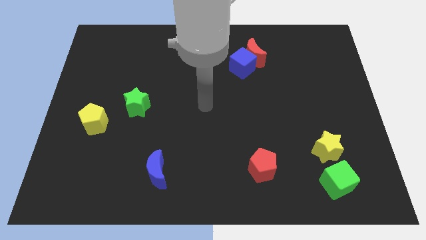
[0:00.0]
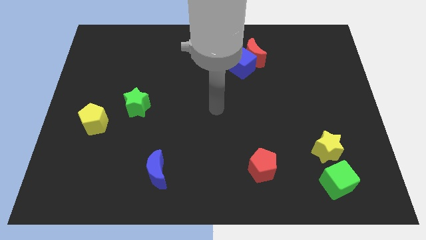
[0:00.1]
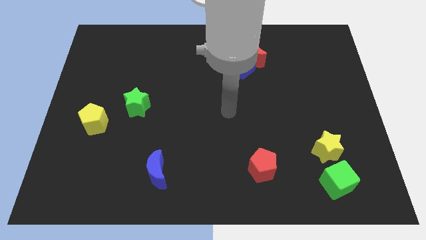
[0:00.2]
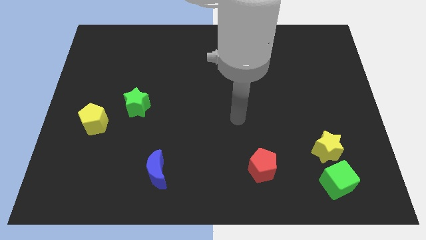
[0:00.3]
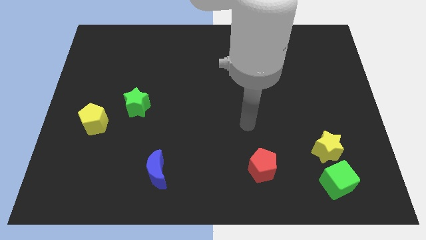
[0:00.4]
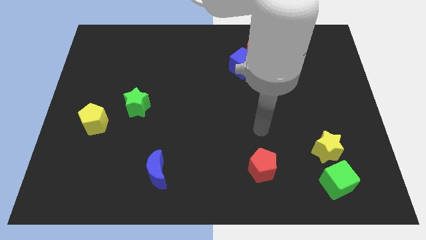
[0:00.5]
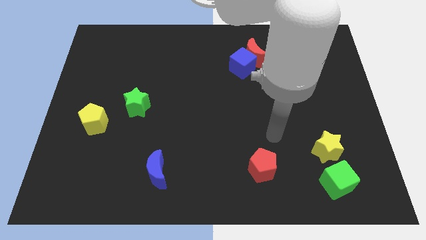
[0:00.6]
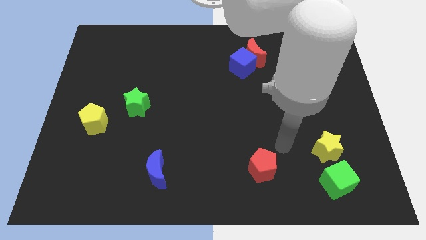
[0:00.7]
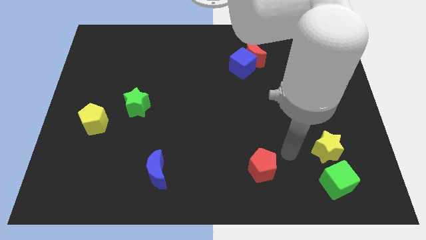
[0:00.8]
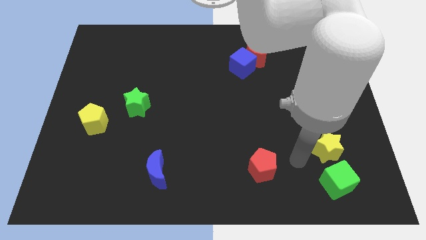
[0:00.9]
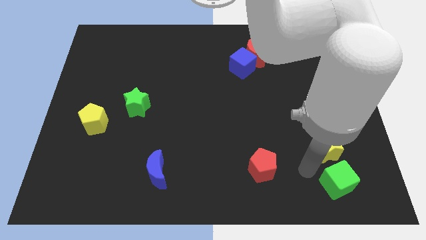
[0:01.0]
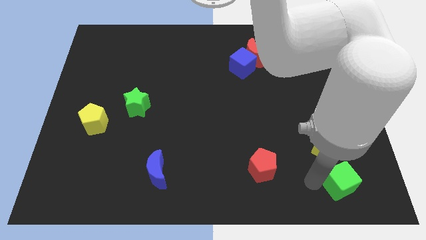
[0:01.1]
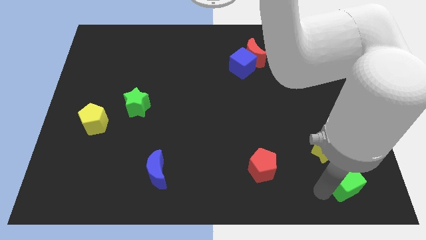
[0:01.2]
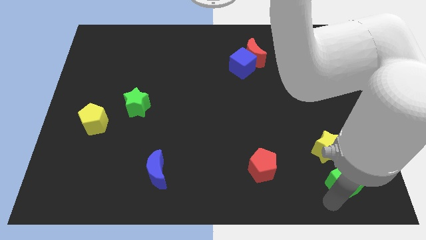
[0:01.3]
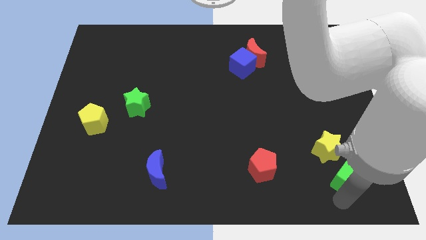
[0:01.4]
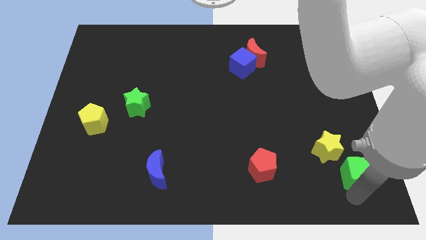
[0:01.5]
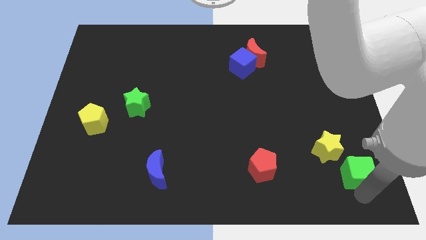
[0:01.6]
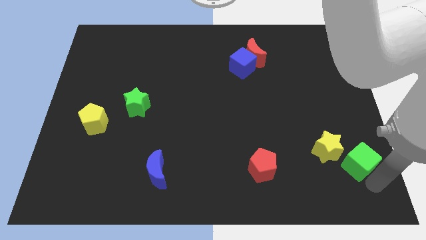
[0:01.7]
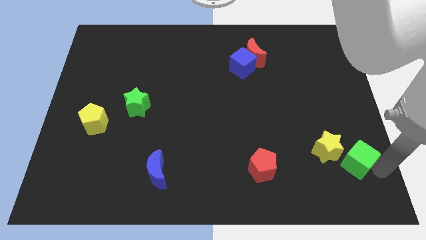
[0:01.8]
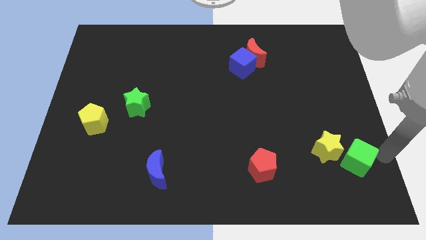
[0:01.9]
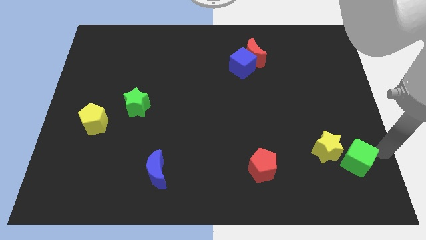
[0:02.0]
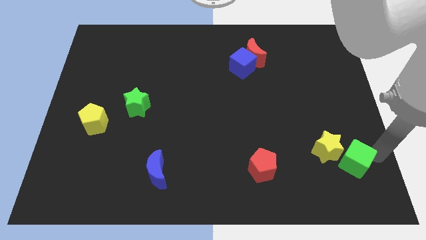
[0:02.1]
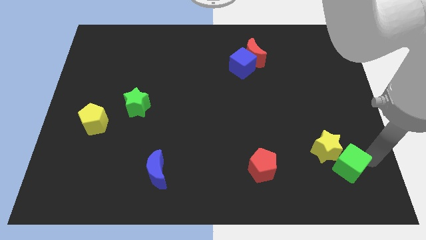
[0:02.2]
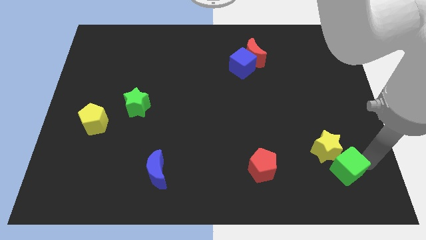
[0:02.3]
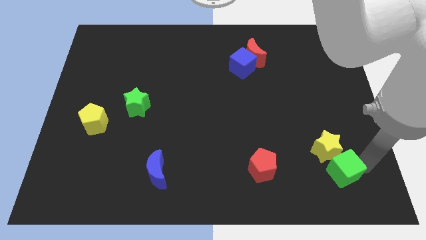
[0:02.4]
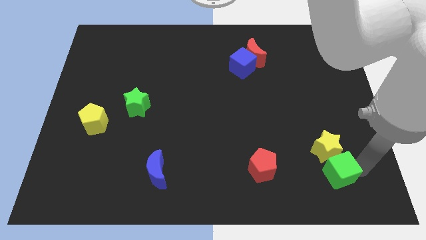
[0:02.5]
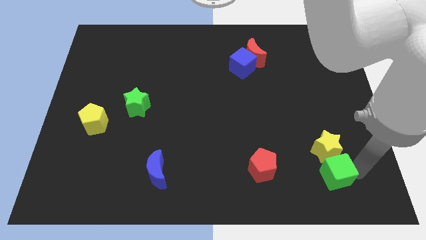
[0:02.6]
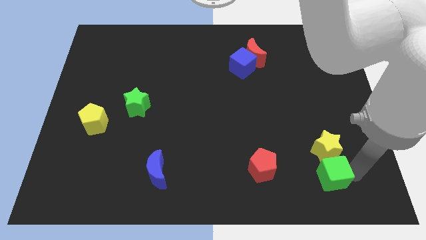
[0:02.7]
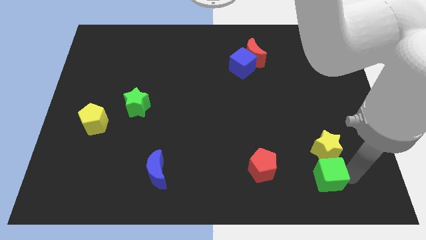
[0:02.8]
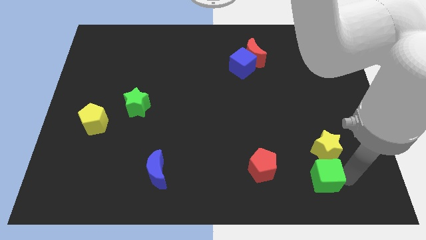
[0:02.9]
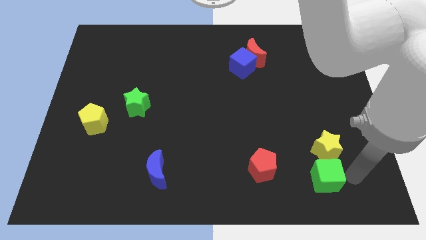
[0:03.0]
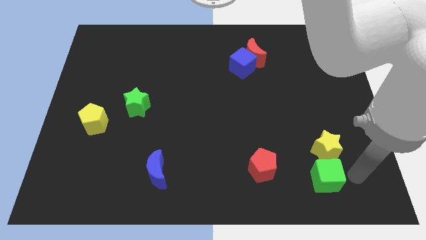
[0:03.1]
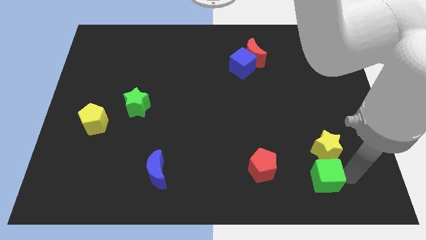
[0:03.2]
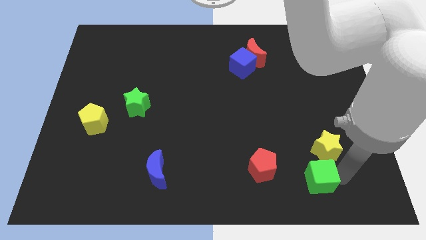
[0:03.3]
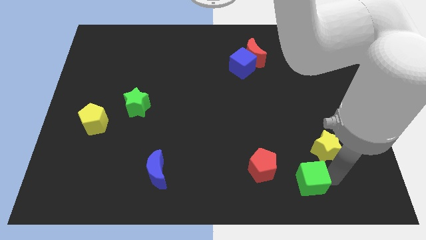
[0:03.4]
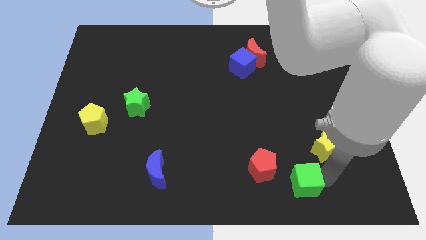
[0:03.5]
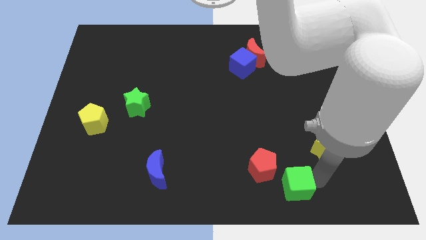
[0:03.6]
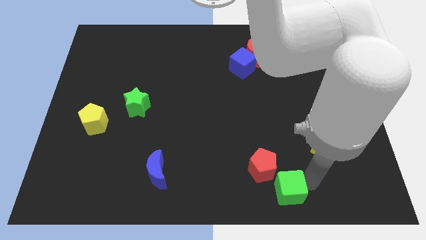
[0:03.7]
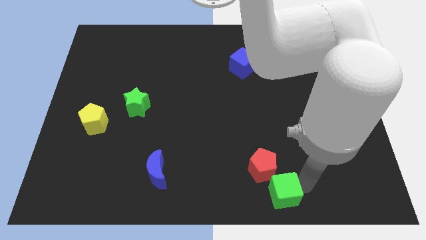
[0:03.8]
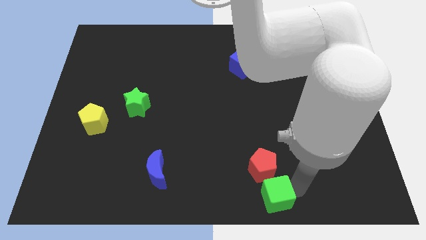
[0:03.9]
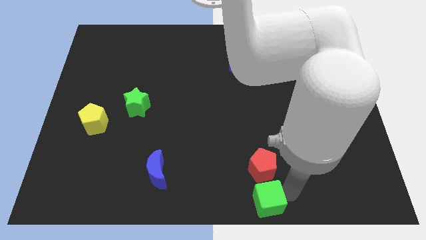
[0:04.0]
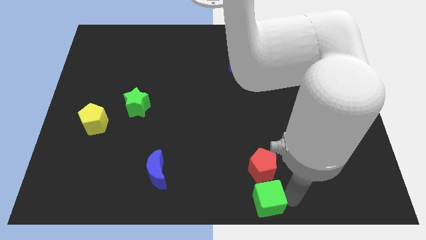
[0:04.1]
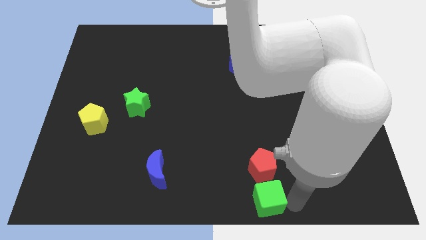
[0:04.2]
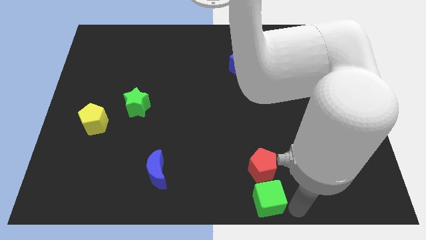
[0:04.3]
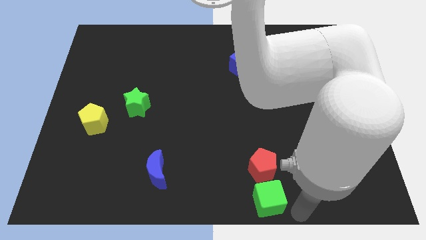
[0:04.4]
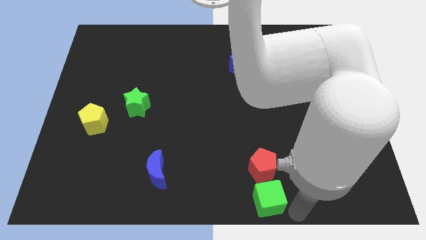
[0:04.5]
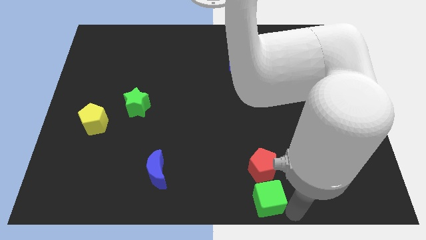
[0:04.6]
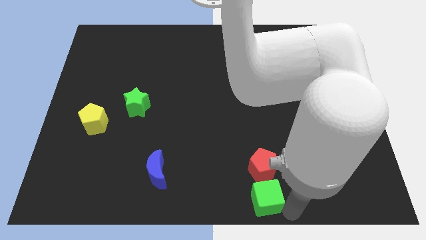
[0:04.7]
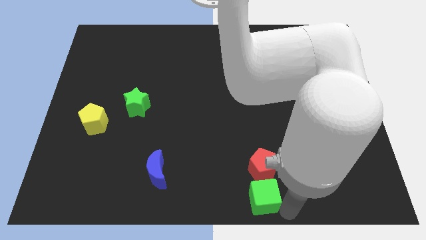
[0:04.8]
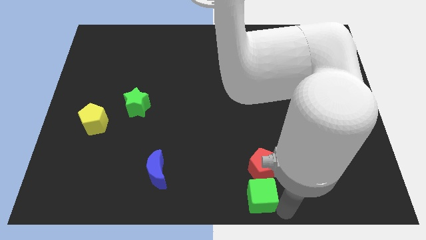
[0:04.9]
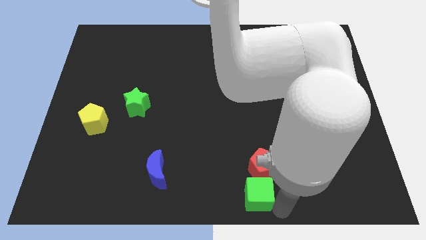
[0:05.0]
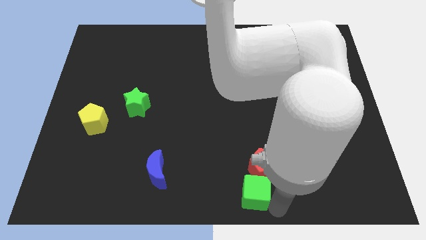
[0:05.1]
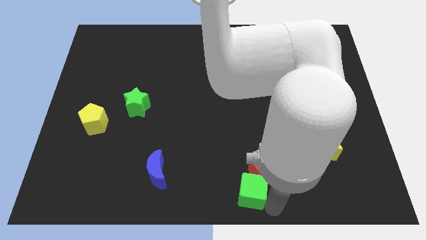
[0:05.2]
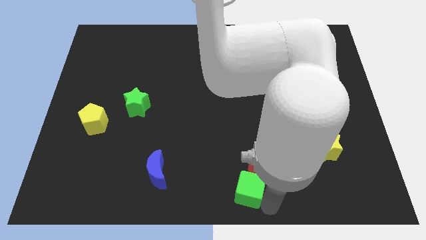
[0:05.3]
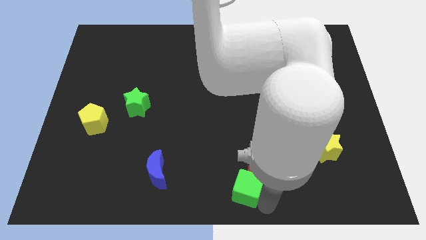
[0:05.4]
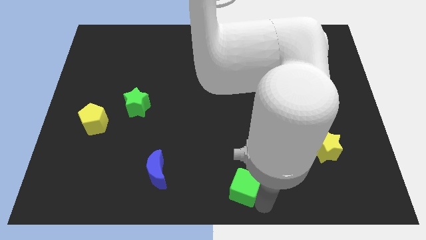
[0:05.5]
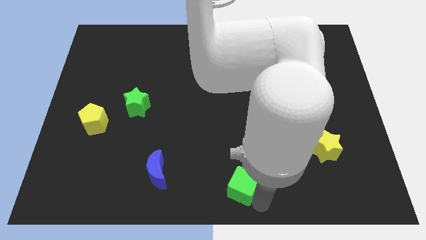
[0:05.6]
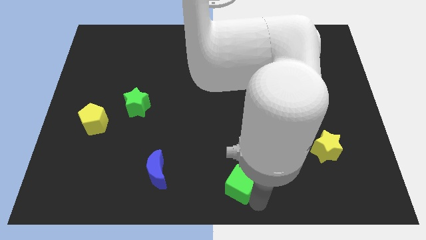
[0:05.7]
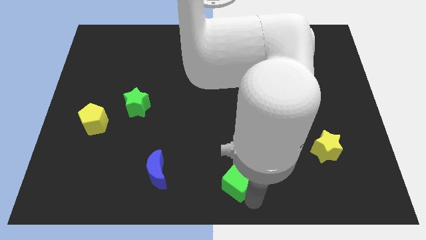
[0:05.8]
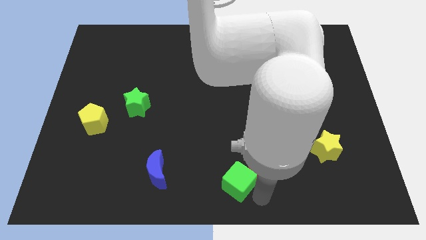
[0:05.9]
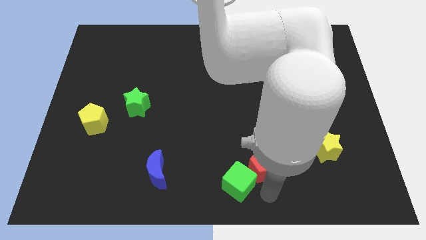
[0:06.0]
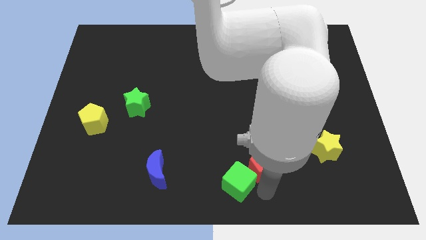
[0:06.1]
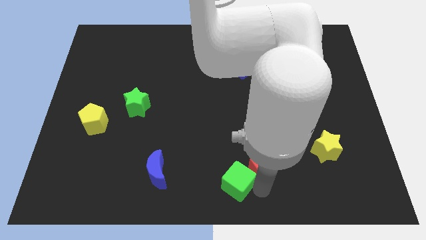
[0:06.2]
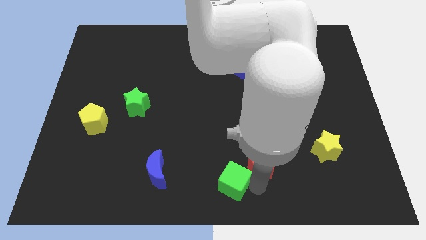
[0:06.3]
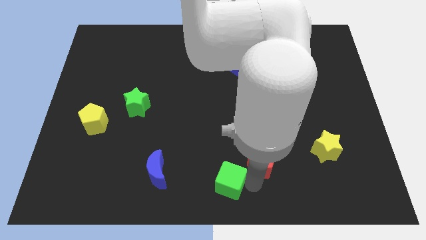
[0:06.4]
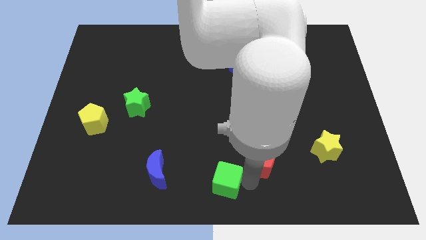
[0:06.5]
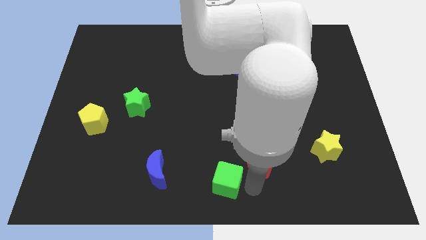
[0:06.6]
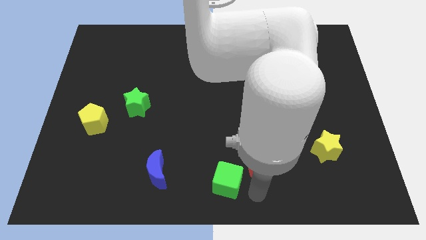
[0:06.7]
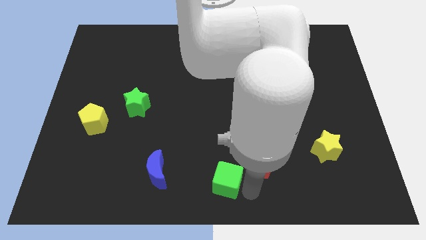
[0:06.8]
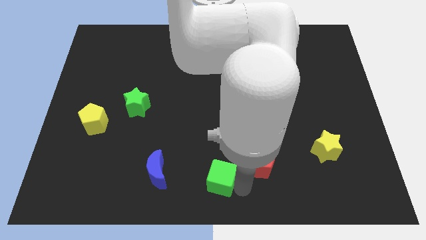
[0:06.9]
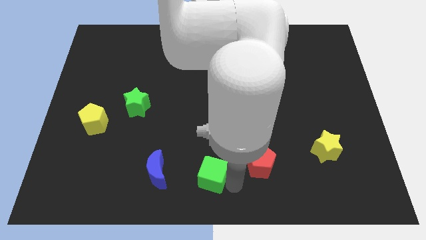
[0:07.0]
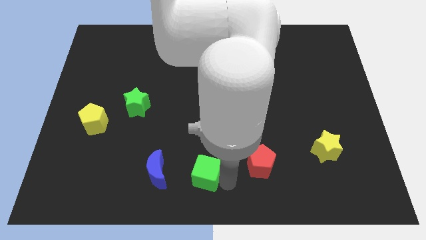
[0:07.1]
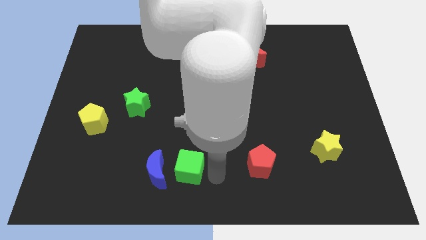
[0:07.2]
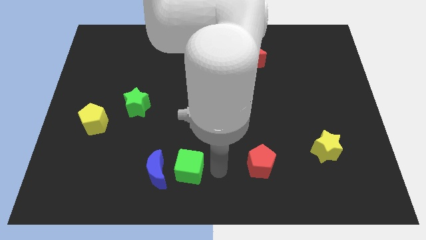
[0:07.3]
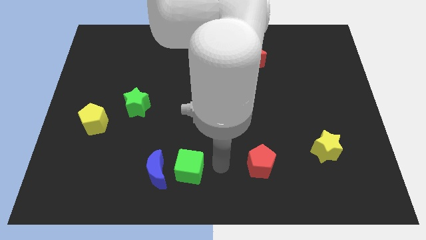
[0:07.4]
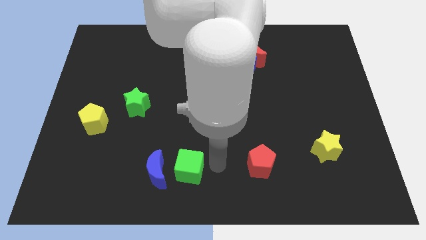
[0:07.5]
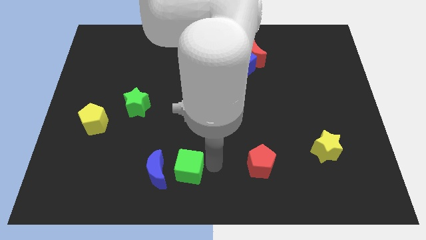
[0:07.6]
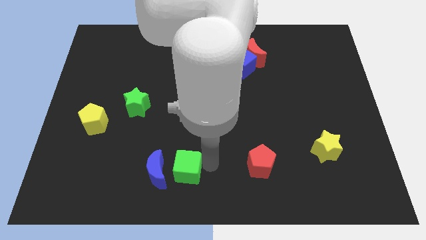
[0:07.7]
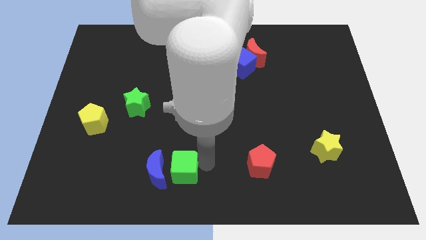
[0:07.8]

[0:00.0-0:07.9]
push the green cube next to the blue moon
